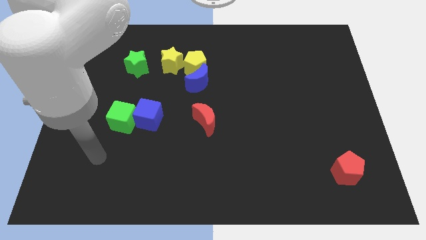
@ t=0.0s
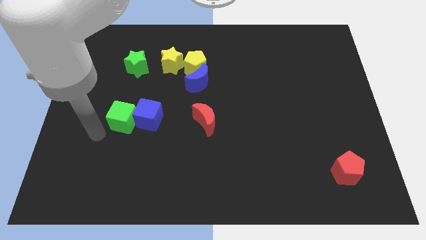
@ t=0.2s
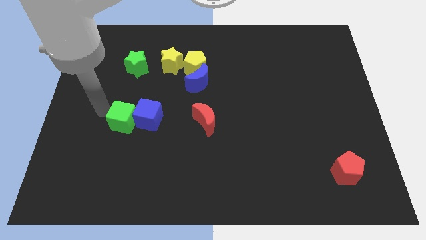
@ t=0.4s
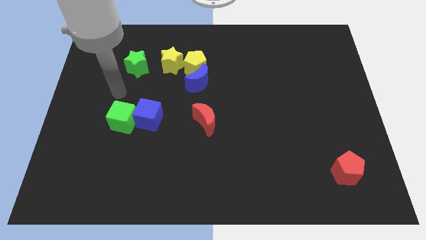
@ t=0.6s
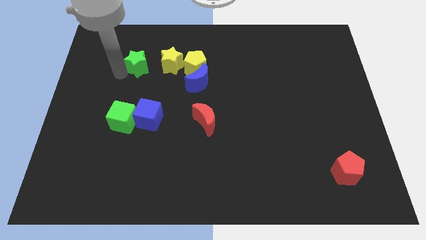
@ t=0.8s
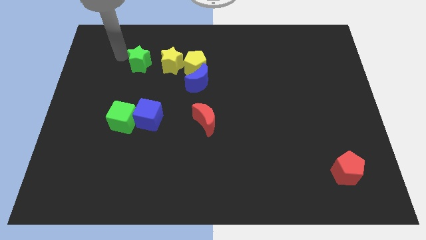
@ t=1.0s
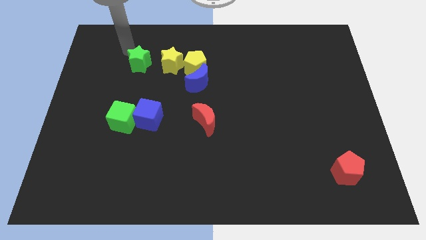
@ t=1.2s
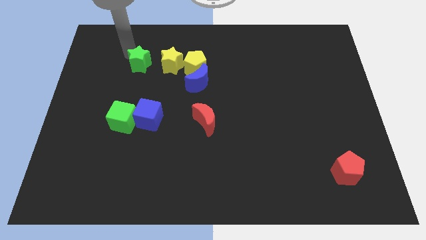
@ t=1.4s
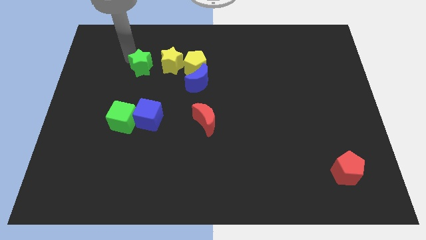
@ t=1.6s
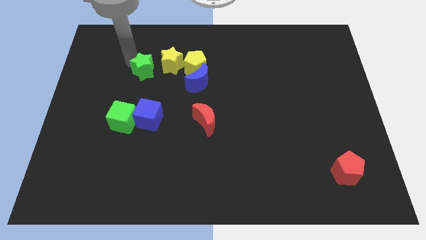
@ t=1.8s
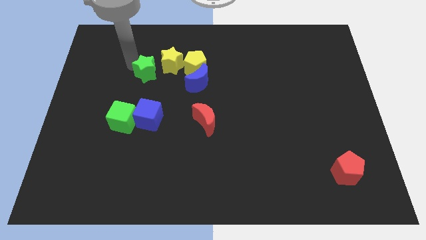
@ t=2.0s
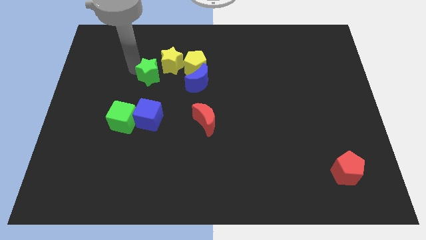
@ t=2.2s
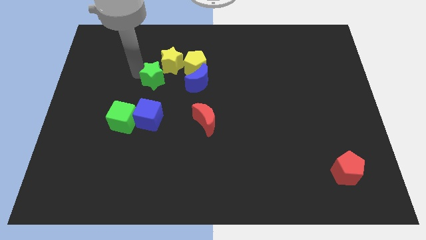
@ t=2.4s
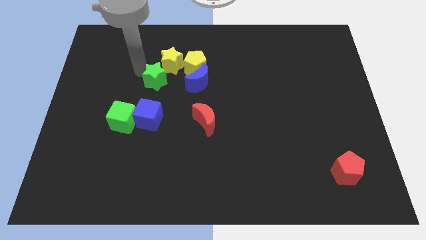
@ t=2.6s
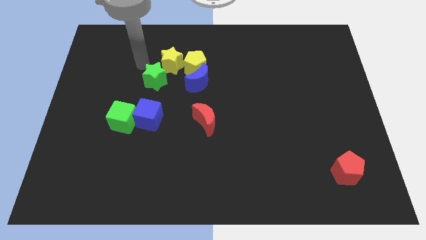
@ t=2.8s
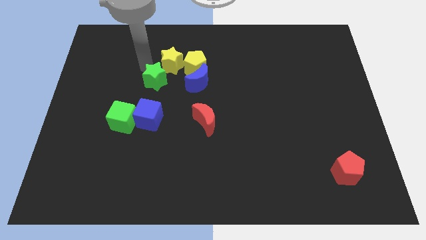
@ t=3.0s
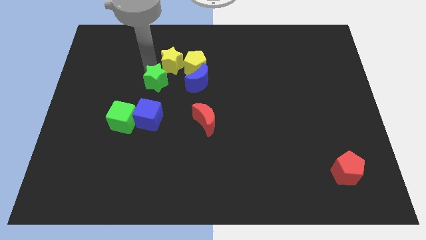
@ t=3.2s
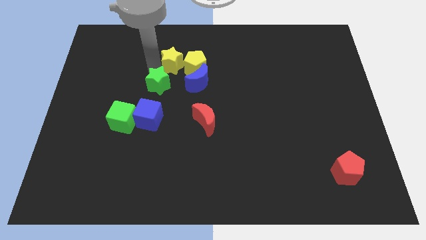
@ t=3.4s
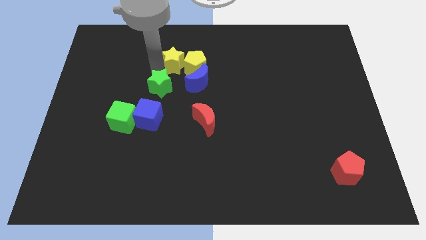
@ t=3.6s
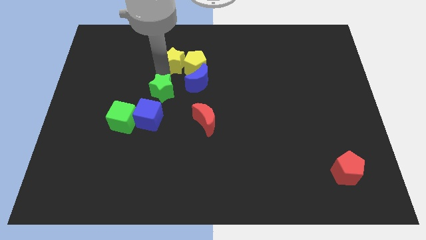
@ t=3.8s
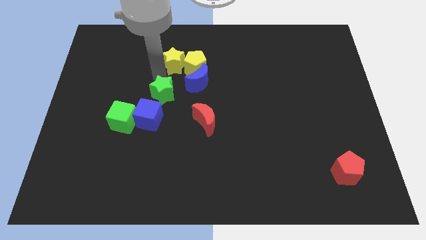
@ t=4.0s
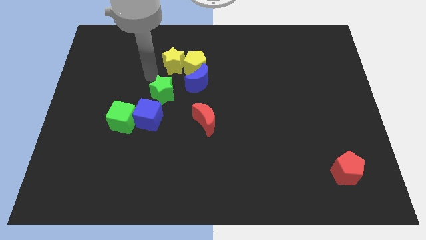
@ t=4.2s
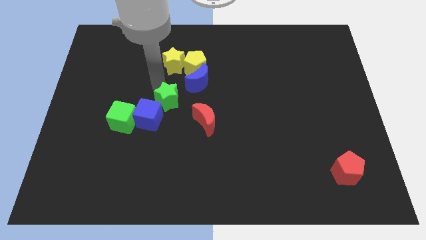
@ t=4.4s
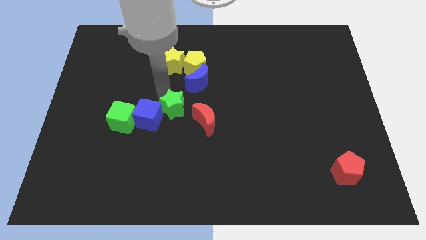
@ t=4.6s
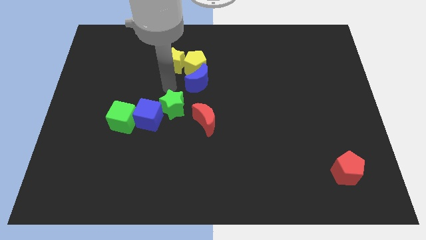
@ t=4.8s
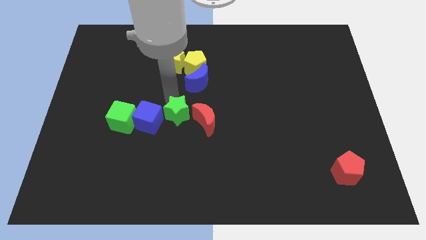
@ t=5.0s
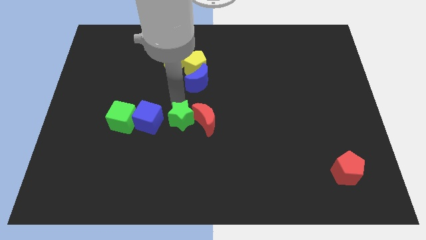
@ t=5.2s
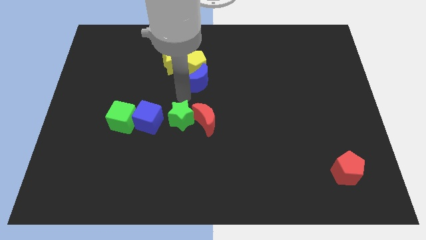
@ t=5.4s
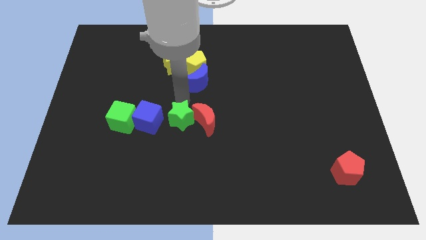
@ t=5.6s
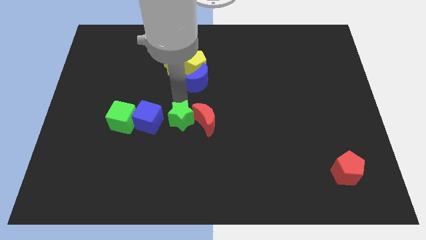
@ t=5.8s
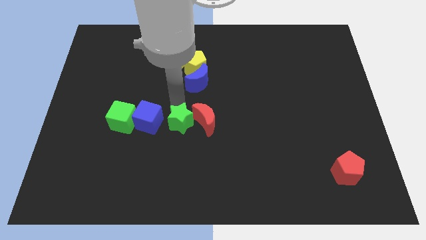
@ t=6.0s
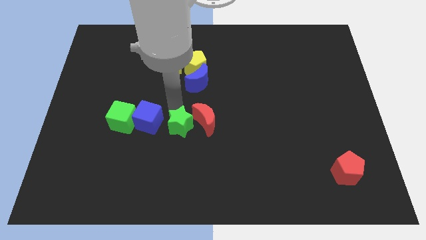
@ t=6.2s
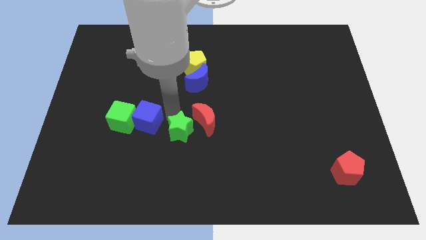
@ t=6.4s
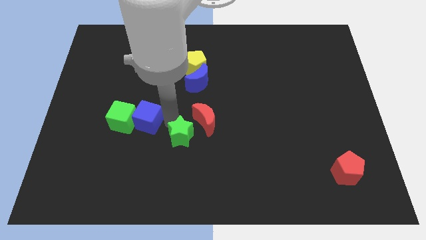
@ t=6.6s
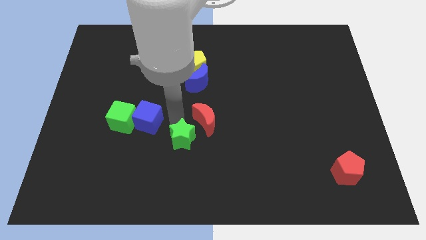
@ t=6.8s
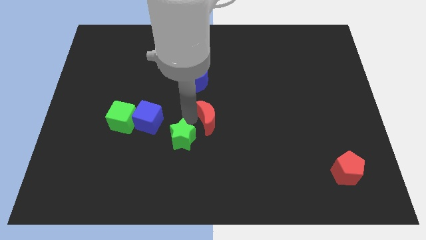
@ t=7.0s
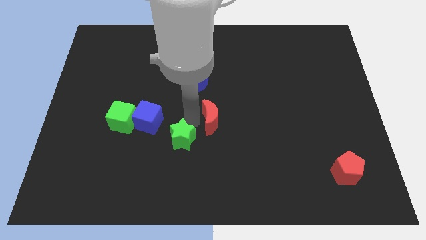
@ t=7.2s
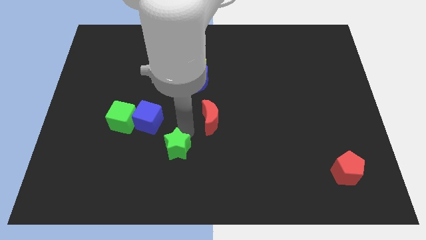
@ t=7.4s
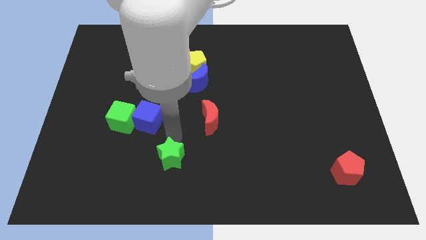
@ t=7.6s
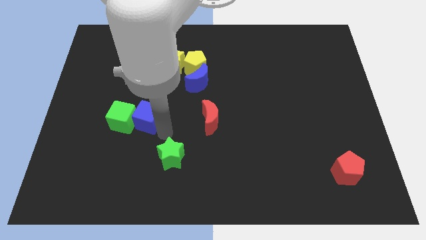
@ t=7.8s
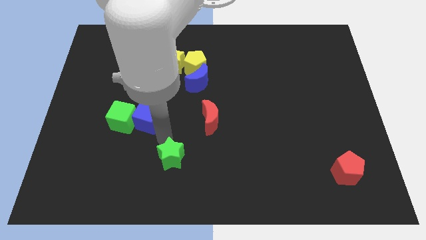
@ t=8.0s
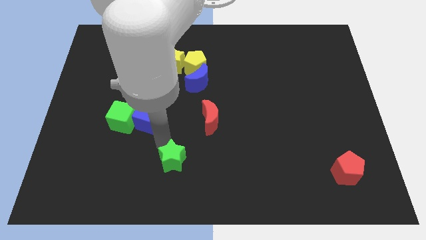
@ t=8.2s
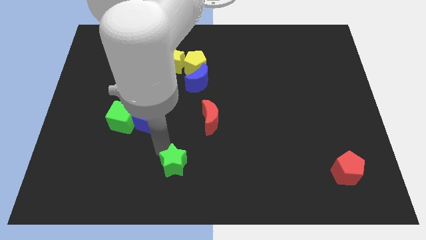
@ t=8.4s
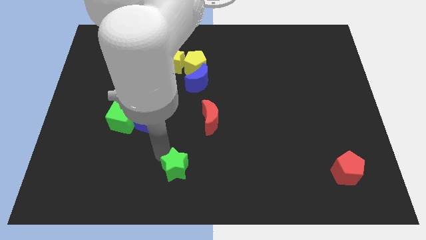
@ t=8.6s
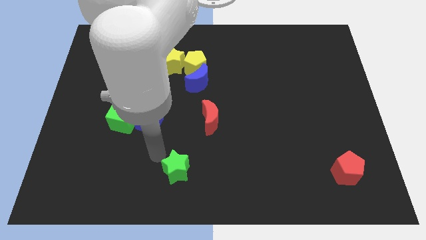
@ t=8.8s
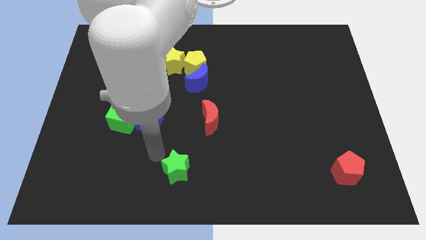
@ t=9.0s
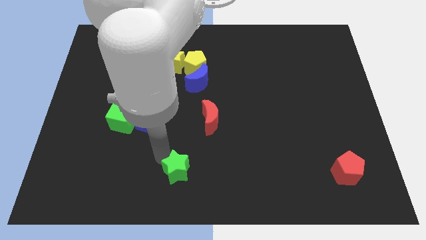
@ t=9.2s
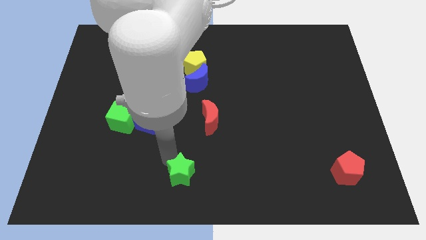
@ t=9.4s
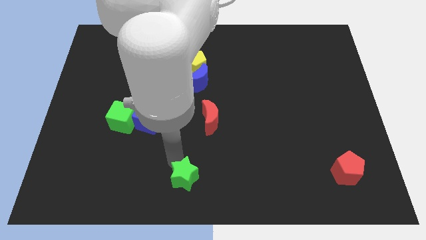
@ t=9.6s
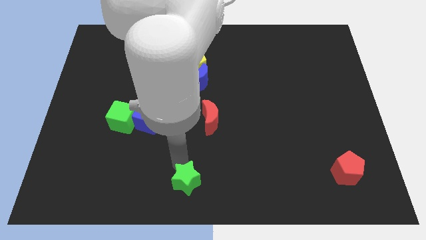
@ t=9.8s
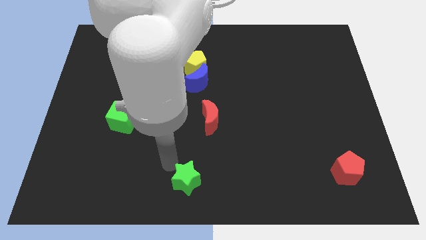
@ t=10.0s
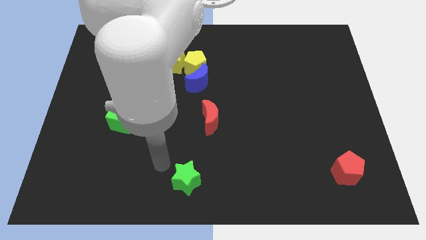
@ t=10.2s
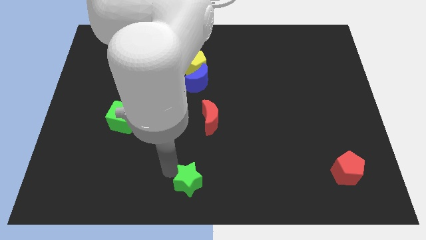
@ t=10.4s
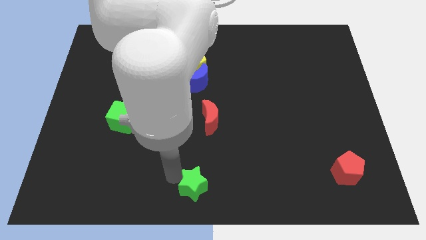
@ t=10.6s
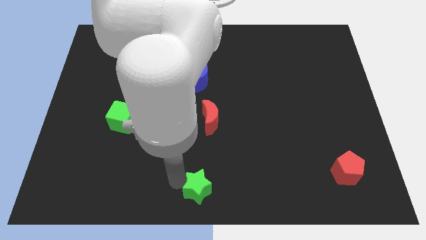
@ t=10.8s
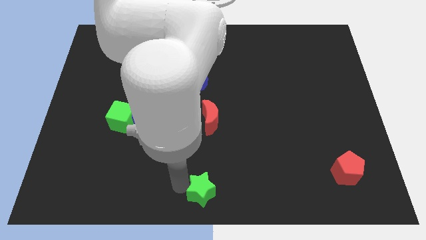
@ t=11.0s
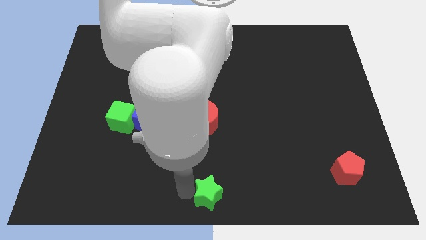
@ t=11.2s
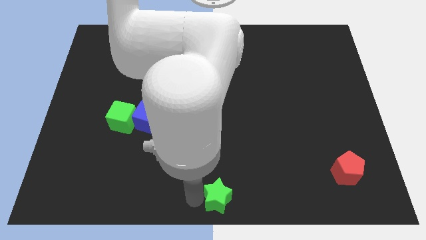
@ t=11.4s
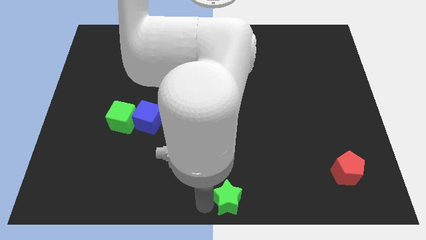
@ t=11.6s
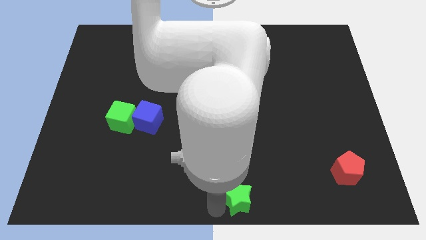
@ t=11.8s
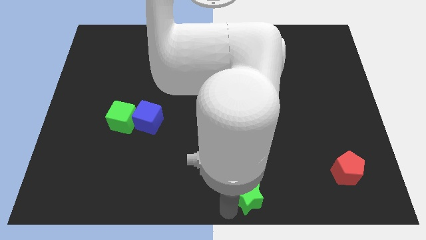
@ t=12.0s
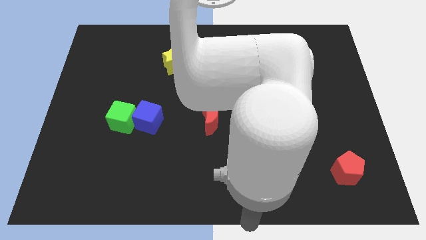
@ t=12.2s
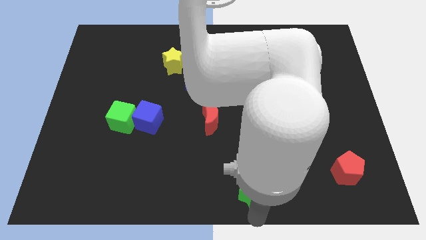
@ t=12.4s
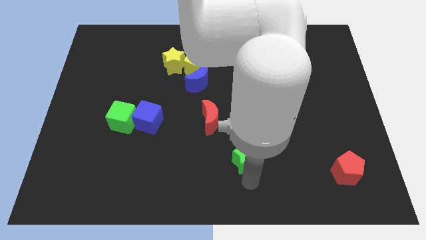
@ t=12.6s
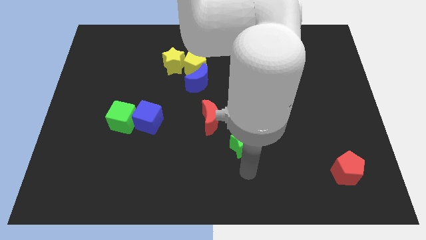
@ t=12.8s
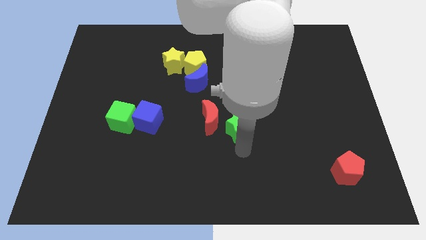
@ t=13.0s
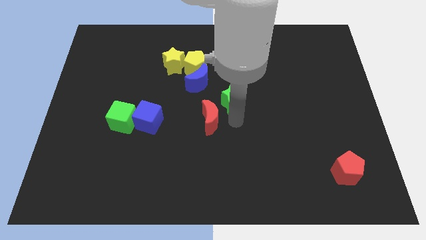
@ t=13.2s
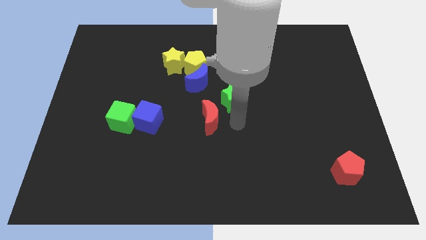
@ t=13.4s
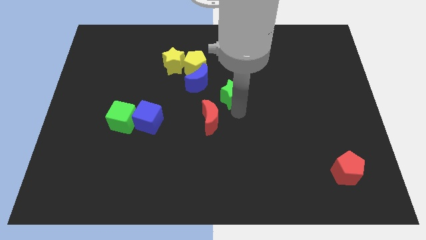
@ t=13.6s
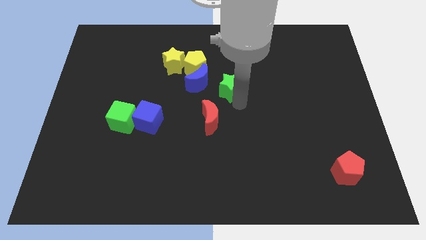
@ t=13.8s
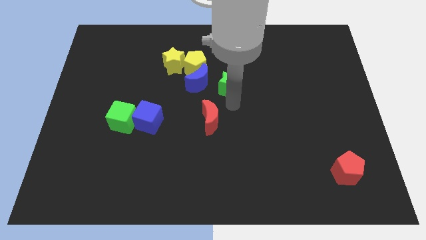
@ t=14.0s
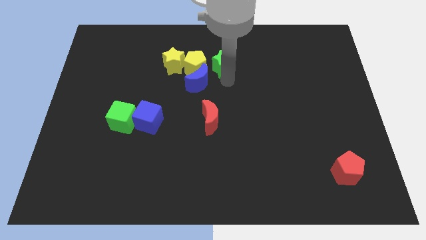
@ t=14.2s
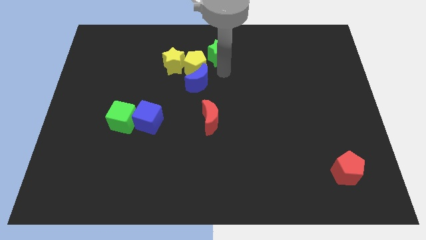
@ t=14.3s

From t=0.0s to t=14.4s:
move the green star to the top
